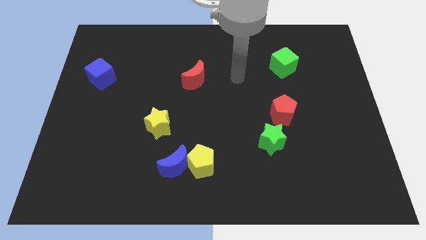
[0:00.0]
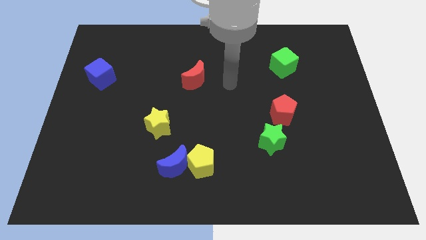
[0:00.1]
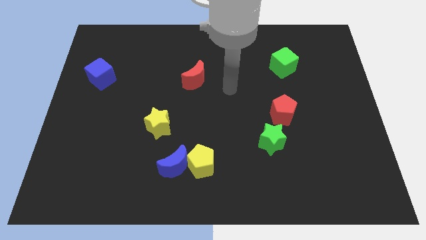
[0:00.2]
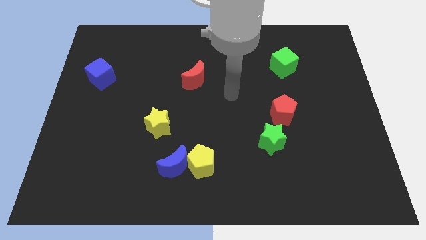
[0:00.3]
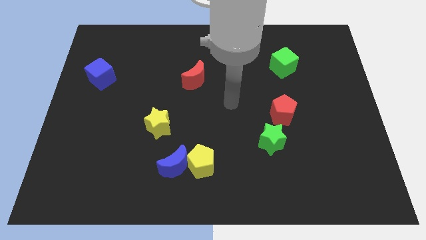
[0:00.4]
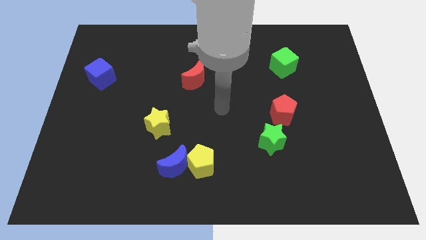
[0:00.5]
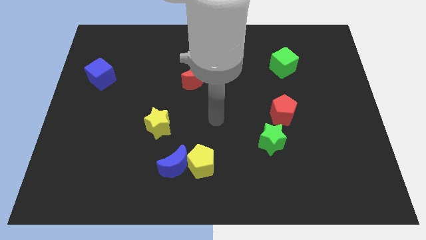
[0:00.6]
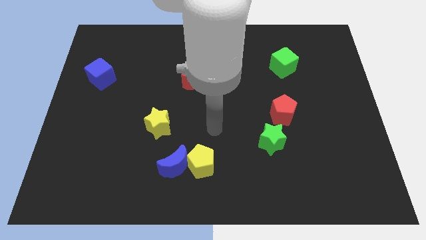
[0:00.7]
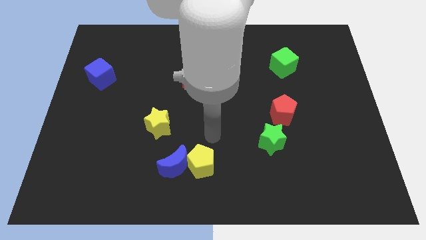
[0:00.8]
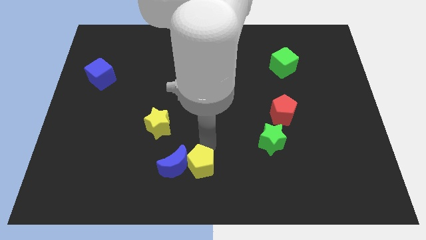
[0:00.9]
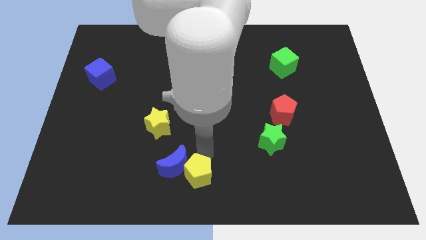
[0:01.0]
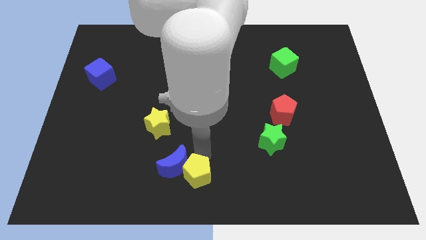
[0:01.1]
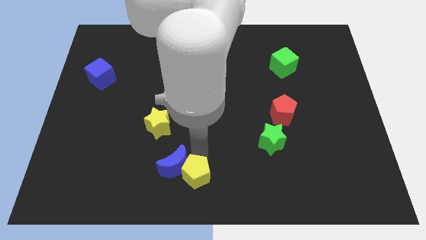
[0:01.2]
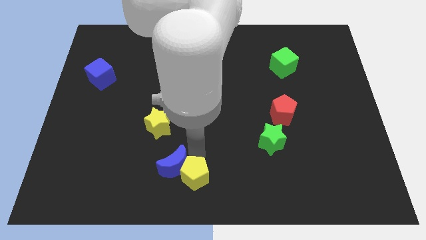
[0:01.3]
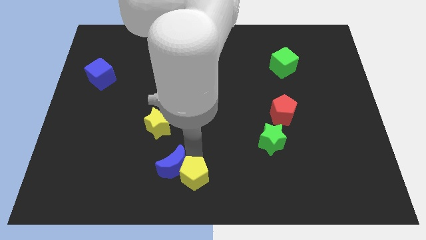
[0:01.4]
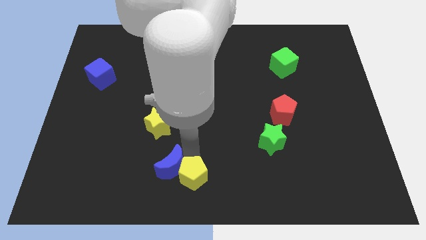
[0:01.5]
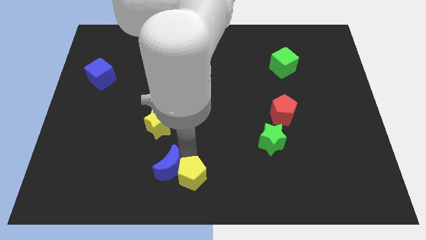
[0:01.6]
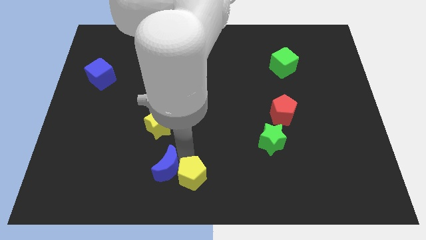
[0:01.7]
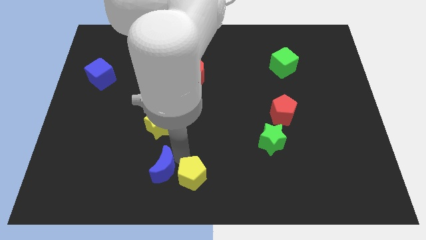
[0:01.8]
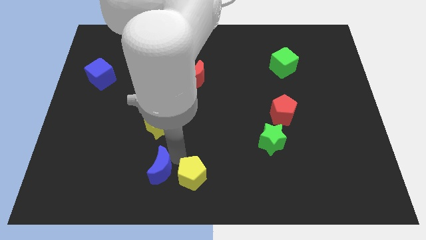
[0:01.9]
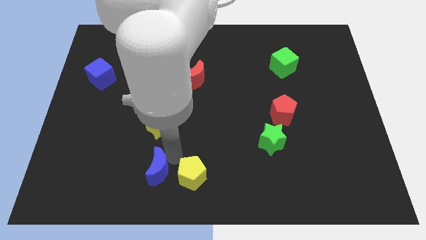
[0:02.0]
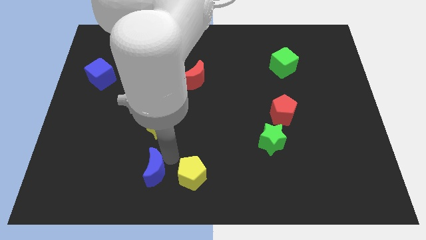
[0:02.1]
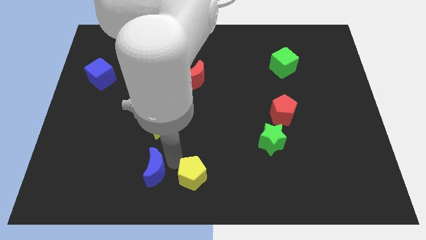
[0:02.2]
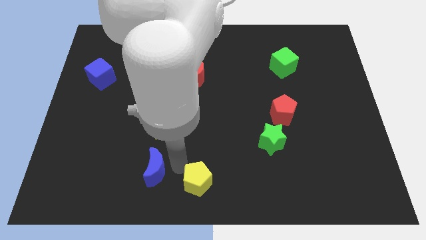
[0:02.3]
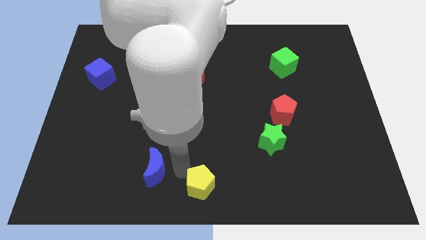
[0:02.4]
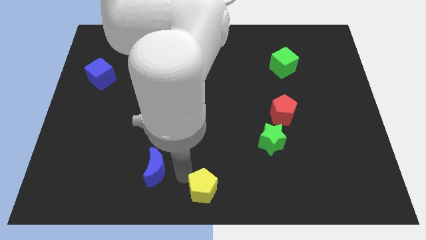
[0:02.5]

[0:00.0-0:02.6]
pull the blue moon apart from the yellow pentagon

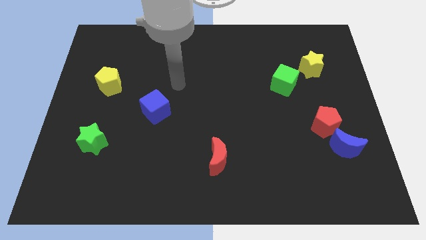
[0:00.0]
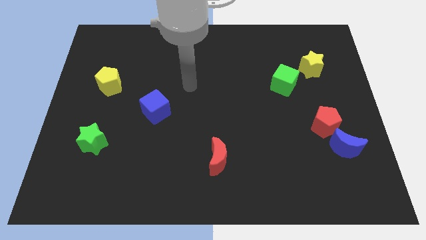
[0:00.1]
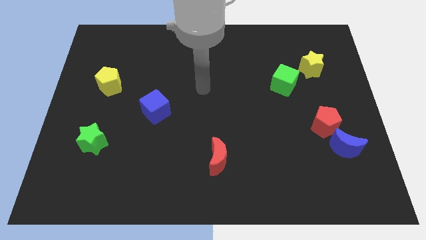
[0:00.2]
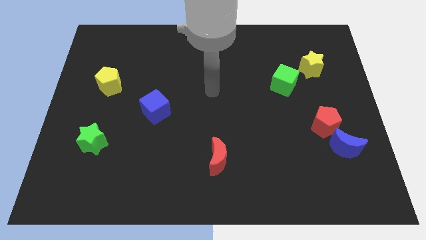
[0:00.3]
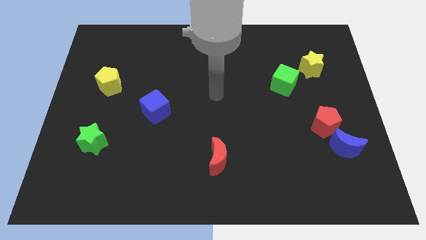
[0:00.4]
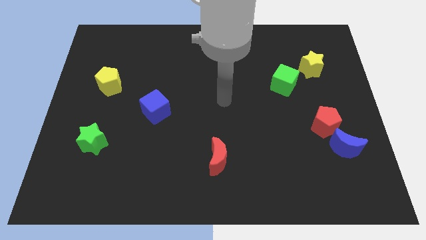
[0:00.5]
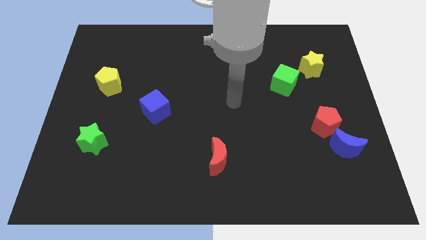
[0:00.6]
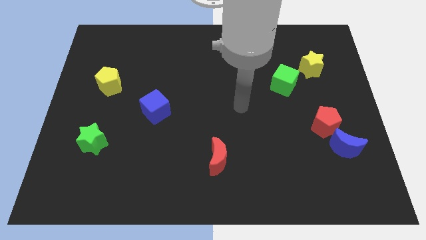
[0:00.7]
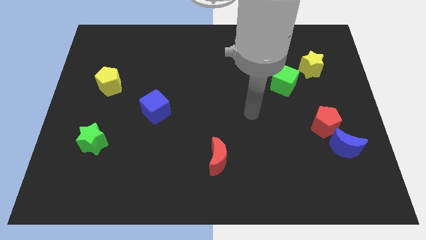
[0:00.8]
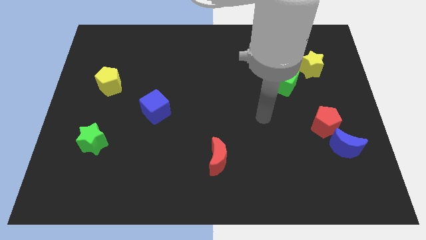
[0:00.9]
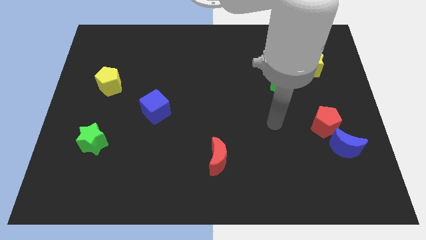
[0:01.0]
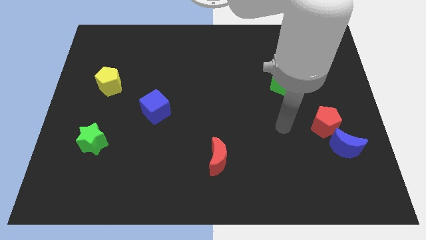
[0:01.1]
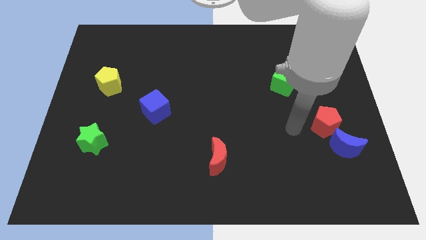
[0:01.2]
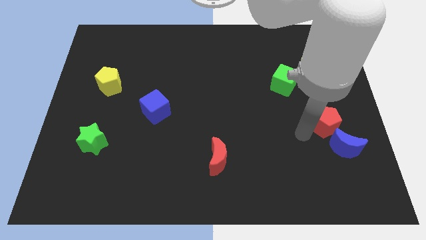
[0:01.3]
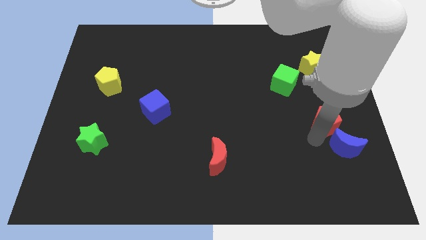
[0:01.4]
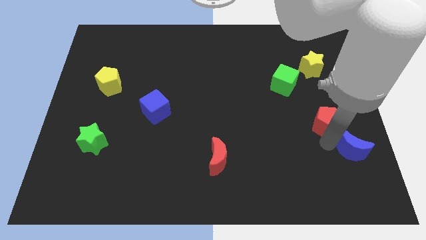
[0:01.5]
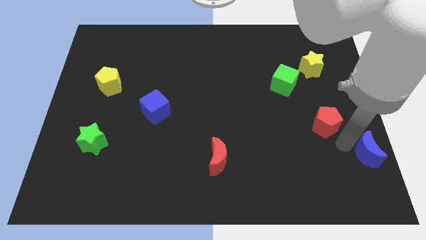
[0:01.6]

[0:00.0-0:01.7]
move the red pentagon away from the blue moon

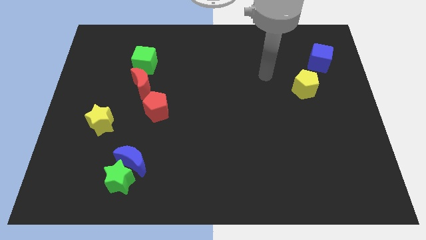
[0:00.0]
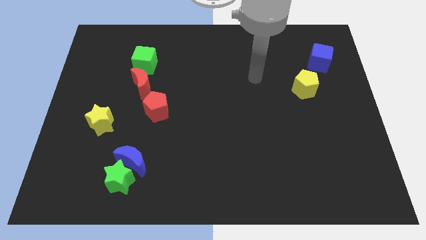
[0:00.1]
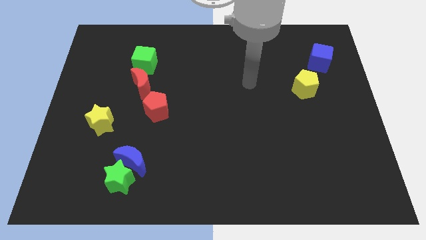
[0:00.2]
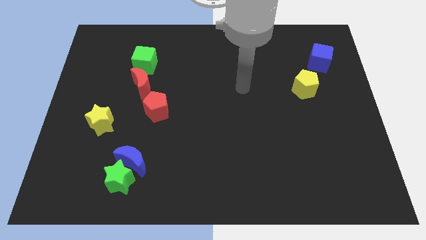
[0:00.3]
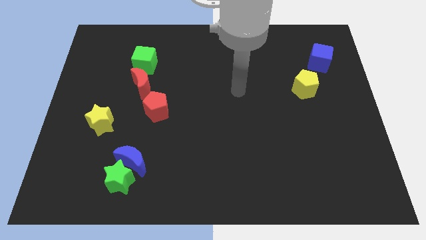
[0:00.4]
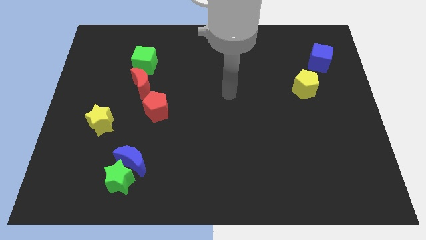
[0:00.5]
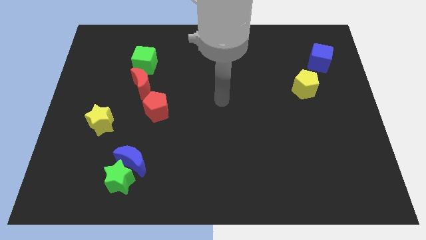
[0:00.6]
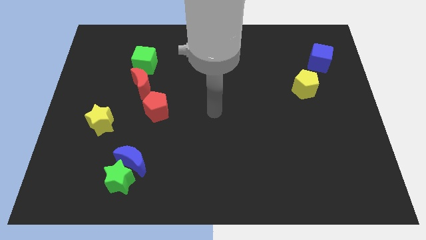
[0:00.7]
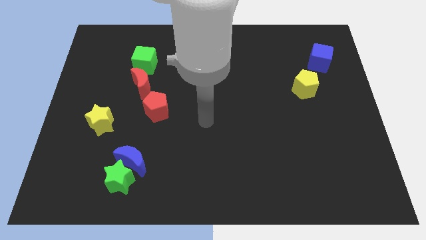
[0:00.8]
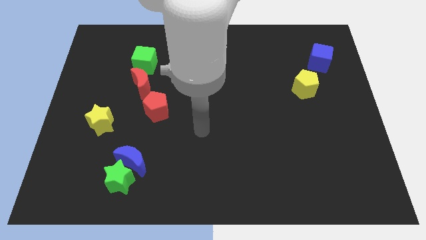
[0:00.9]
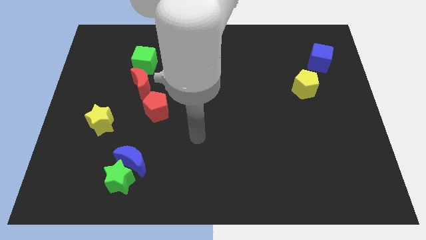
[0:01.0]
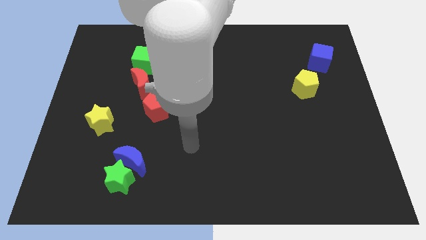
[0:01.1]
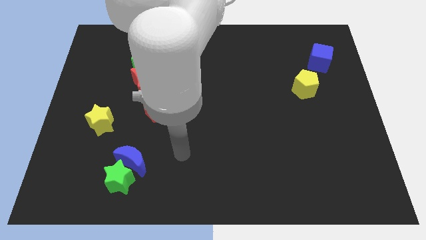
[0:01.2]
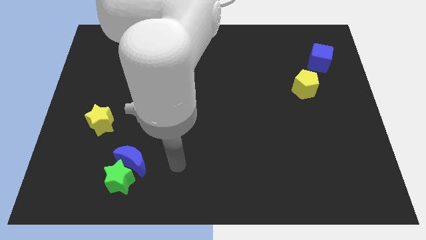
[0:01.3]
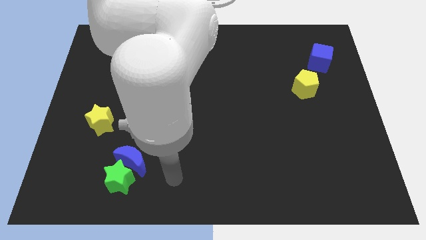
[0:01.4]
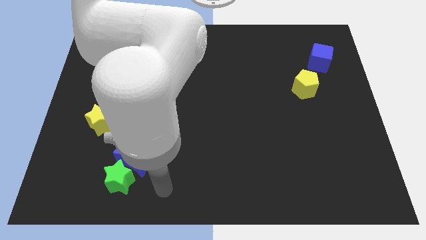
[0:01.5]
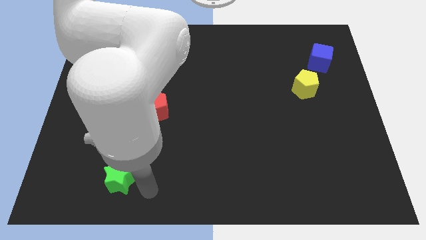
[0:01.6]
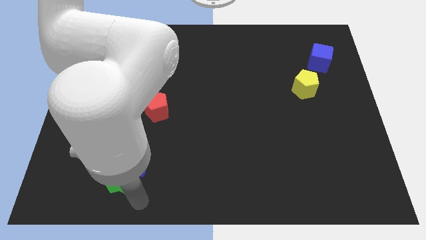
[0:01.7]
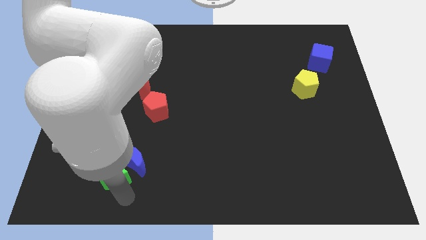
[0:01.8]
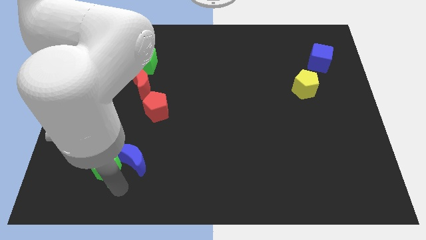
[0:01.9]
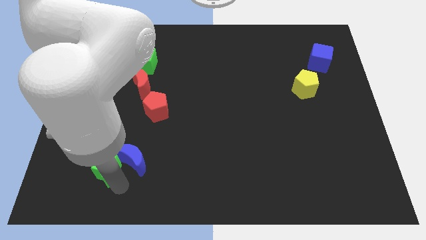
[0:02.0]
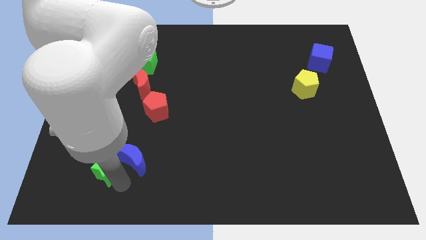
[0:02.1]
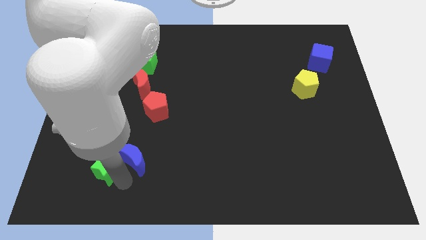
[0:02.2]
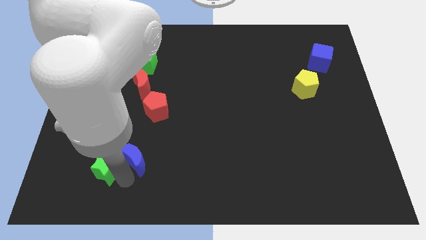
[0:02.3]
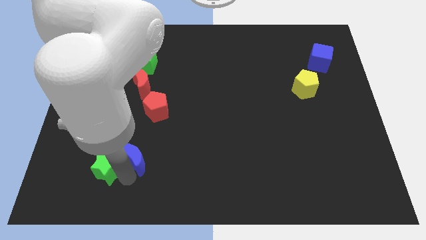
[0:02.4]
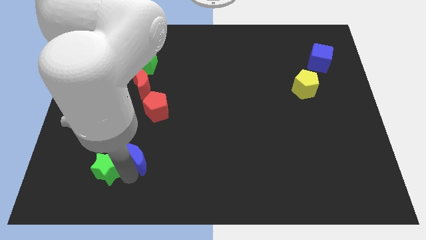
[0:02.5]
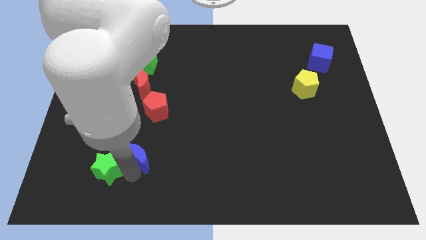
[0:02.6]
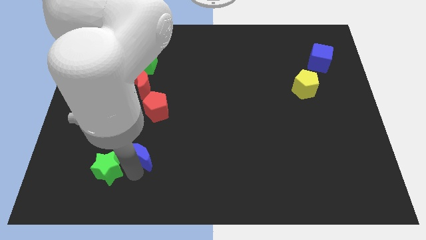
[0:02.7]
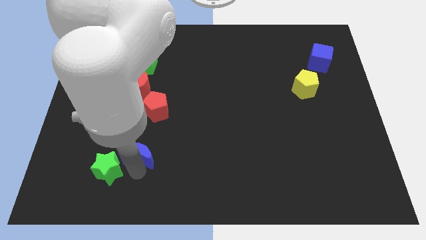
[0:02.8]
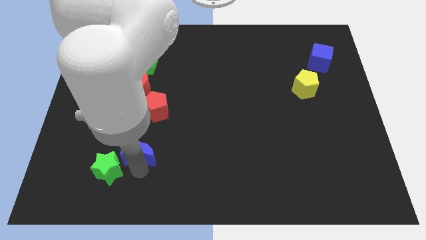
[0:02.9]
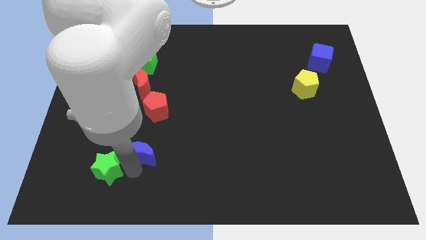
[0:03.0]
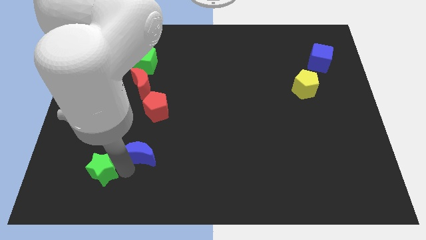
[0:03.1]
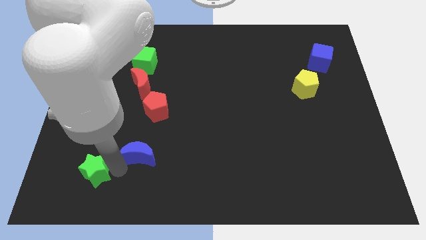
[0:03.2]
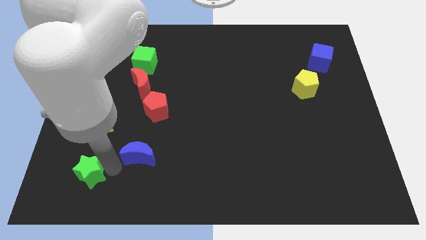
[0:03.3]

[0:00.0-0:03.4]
pull the blue moon apart from the green star

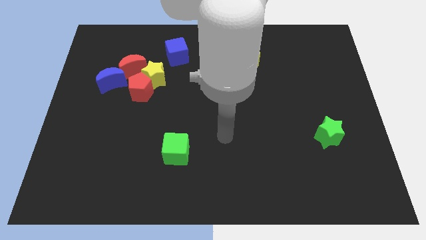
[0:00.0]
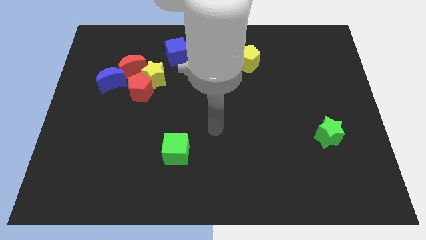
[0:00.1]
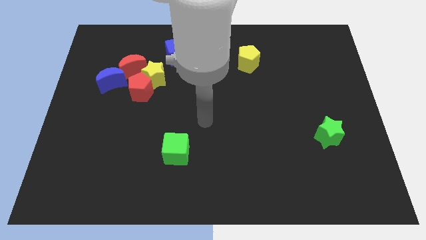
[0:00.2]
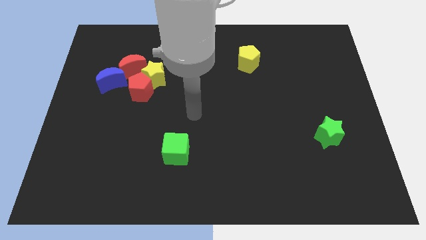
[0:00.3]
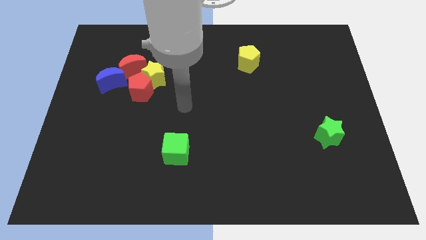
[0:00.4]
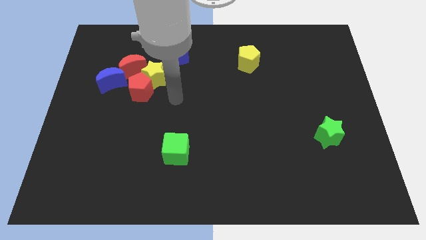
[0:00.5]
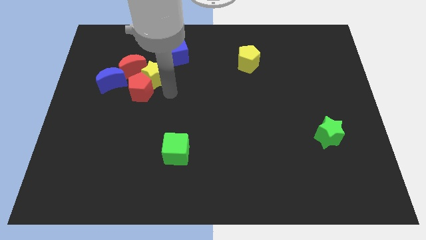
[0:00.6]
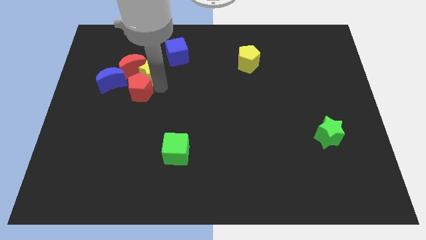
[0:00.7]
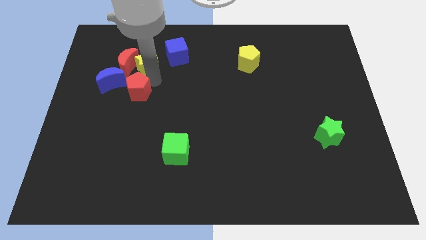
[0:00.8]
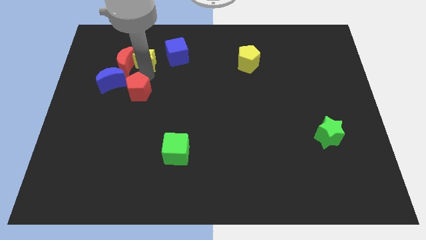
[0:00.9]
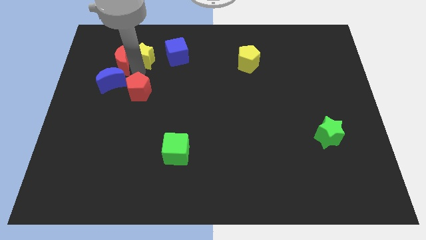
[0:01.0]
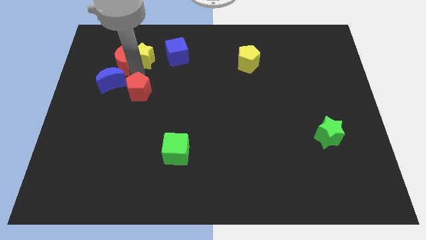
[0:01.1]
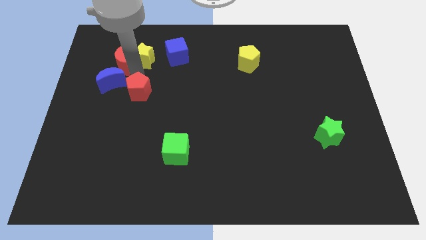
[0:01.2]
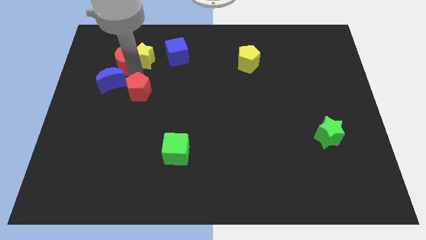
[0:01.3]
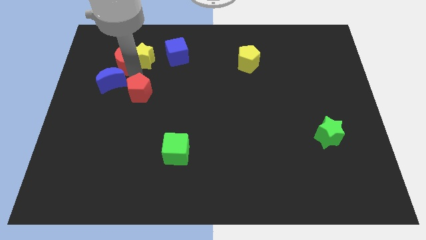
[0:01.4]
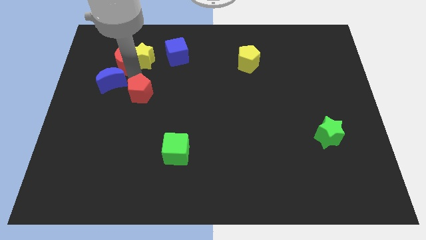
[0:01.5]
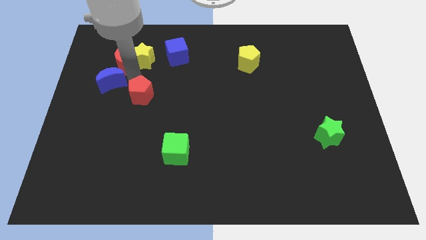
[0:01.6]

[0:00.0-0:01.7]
separate the red pentagon from the clump
